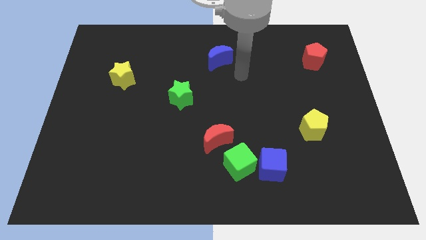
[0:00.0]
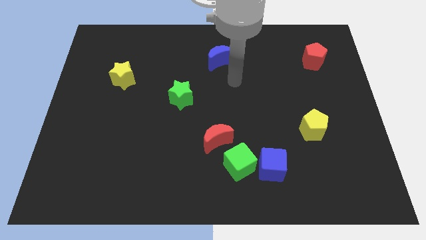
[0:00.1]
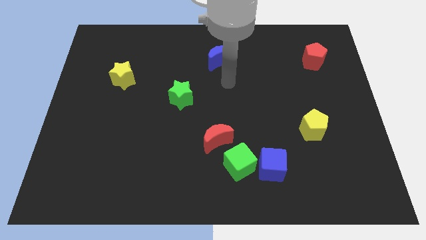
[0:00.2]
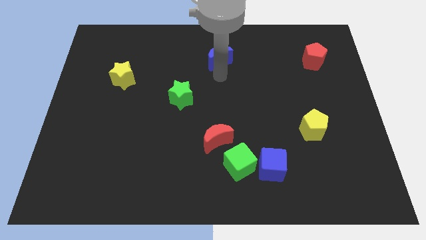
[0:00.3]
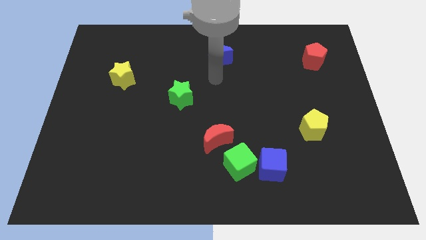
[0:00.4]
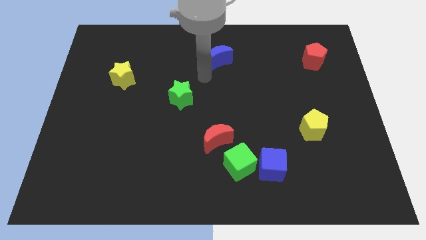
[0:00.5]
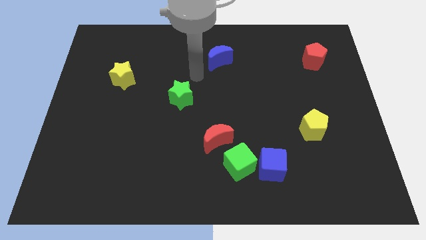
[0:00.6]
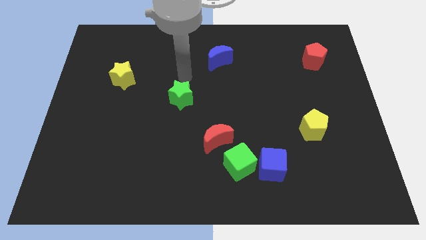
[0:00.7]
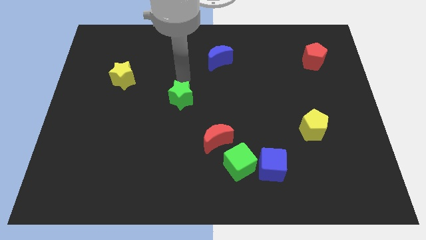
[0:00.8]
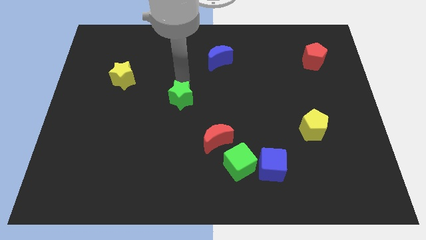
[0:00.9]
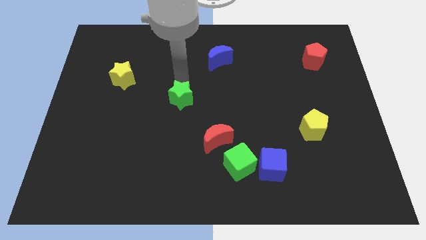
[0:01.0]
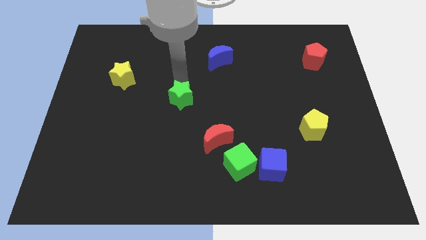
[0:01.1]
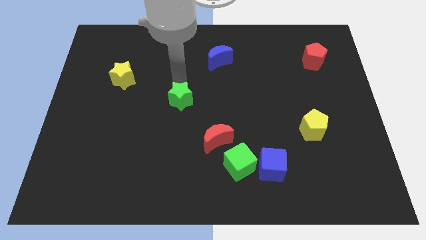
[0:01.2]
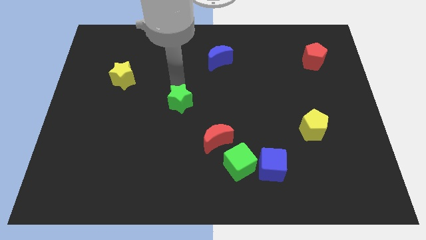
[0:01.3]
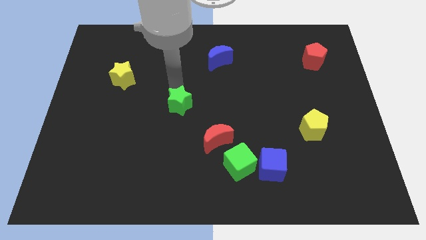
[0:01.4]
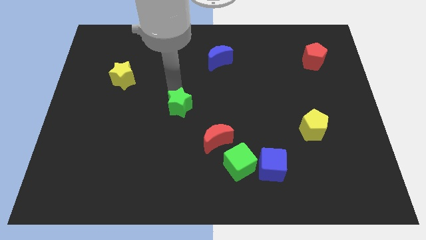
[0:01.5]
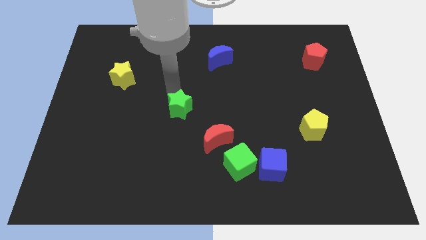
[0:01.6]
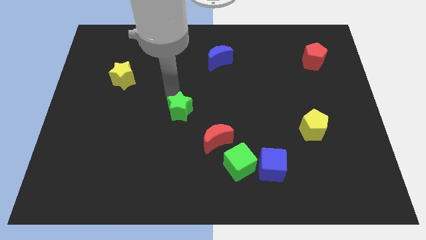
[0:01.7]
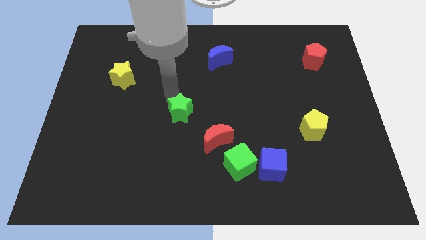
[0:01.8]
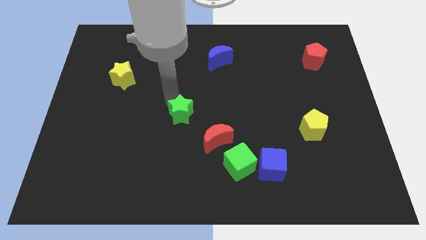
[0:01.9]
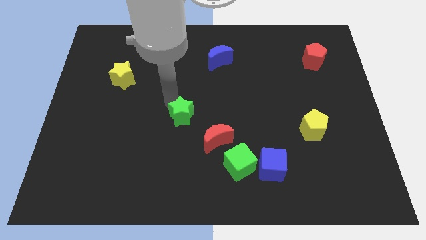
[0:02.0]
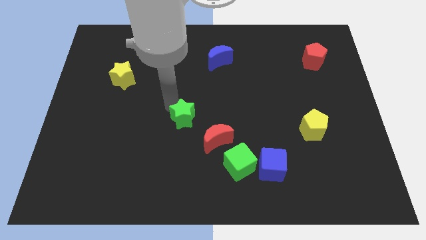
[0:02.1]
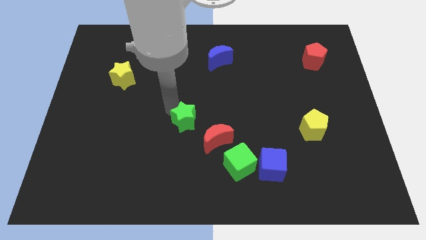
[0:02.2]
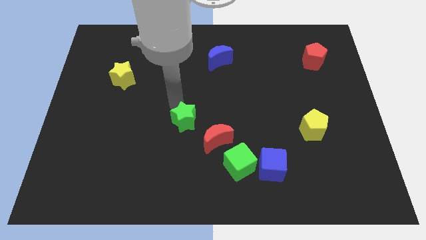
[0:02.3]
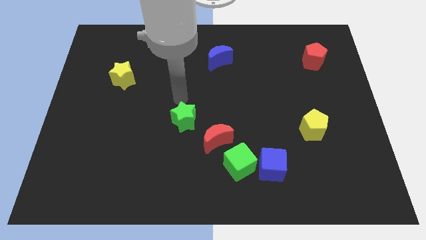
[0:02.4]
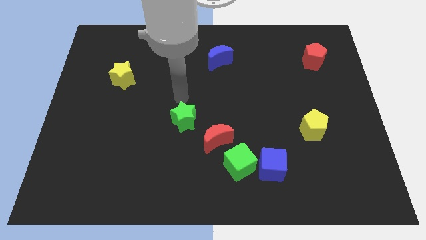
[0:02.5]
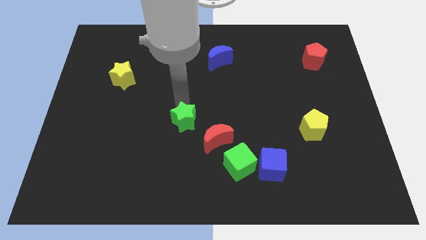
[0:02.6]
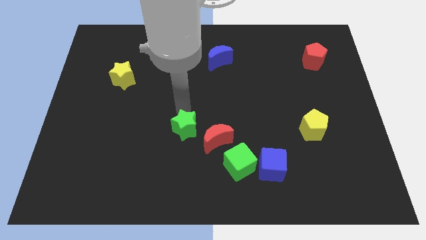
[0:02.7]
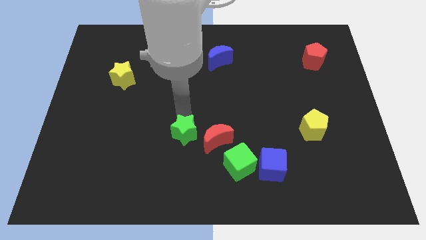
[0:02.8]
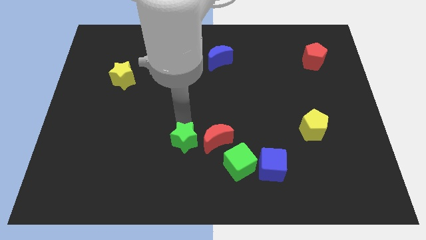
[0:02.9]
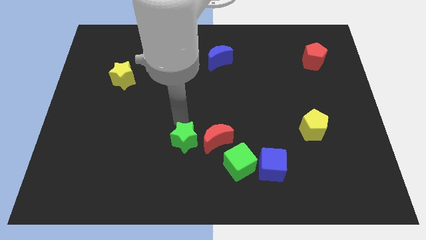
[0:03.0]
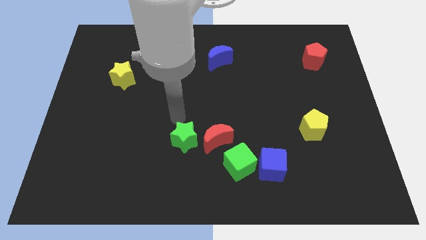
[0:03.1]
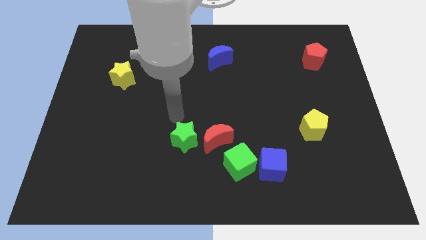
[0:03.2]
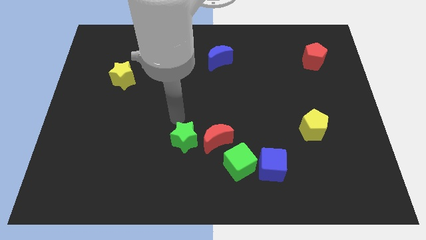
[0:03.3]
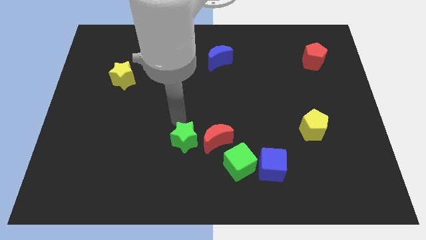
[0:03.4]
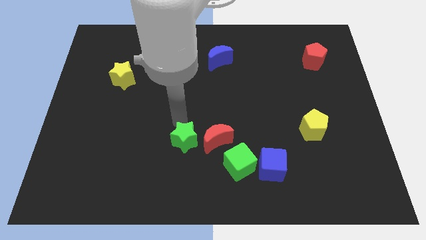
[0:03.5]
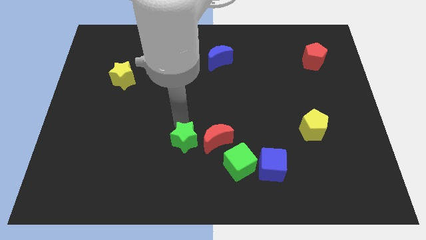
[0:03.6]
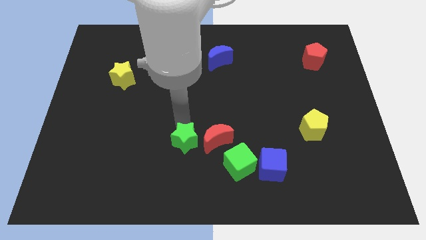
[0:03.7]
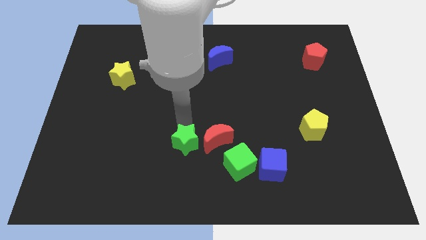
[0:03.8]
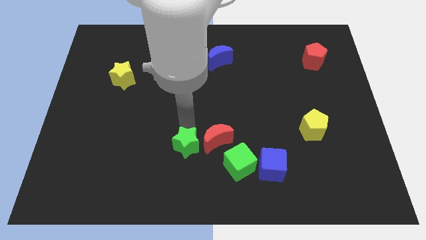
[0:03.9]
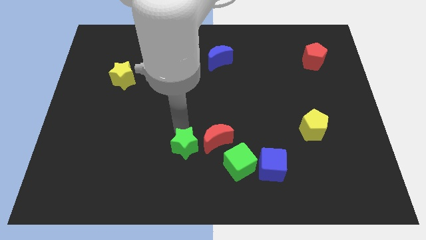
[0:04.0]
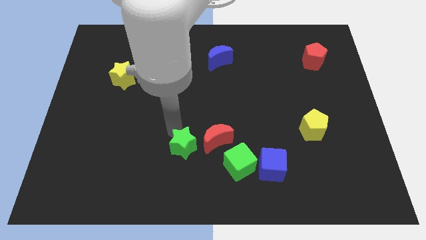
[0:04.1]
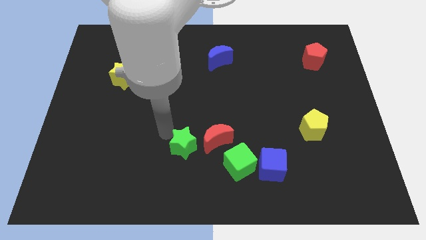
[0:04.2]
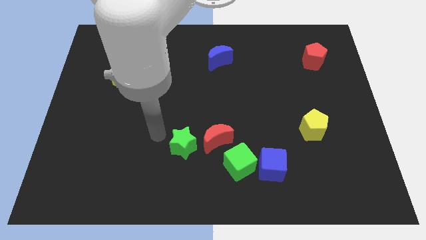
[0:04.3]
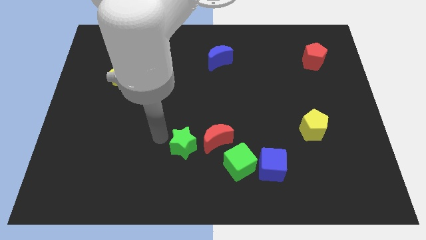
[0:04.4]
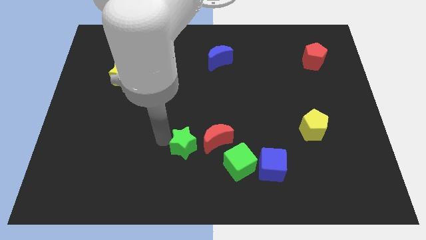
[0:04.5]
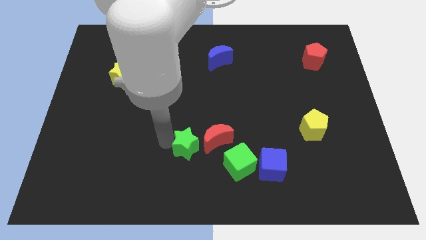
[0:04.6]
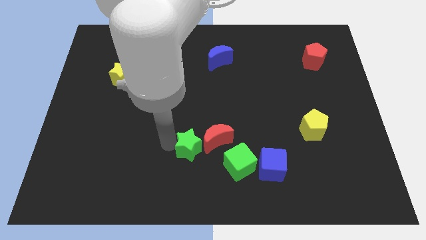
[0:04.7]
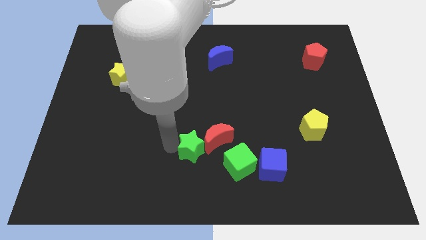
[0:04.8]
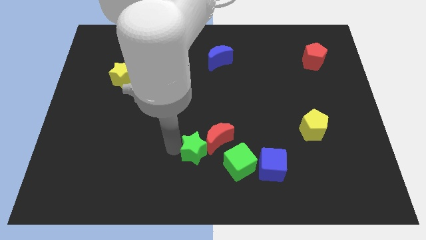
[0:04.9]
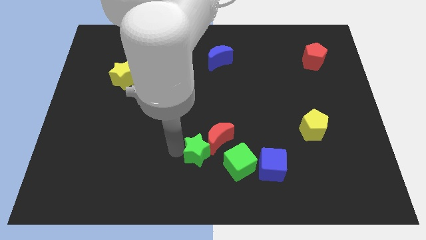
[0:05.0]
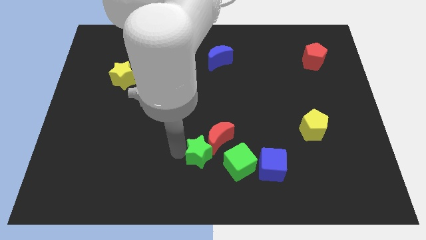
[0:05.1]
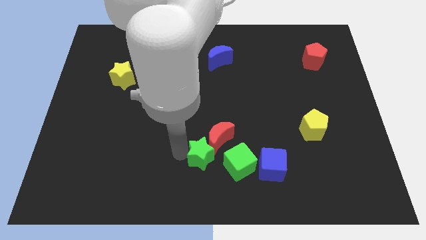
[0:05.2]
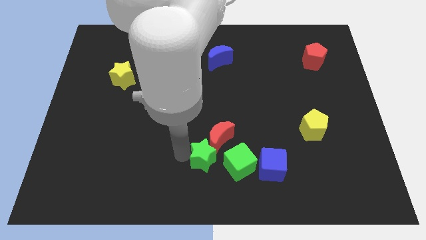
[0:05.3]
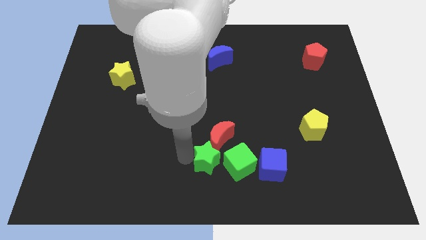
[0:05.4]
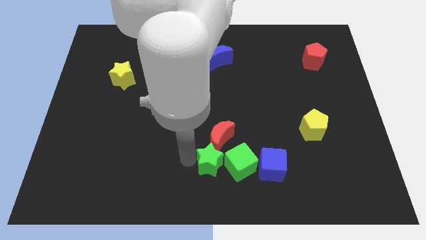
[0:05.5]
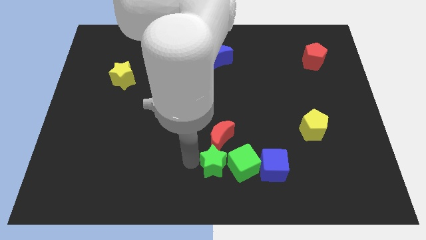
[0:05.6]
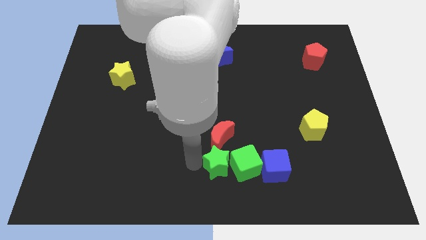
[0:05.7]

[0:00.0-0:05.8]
slide the green star next to the green cube
